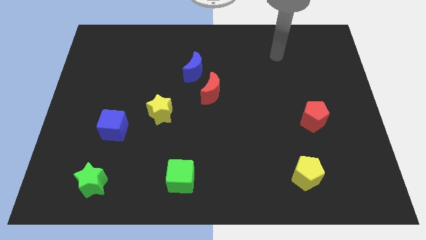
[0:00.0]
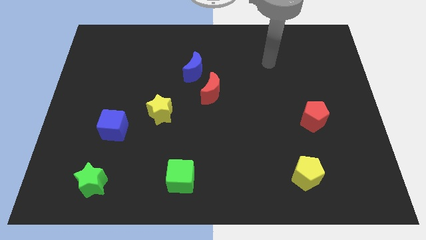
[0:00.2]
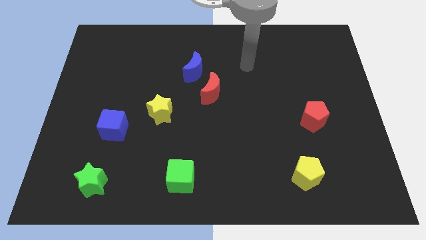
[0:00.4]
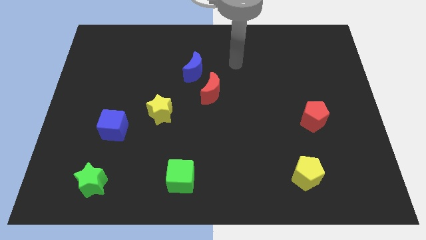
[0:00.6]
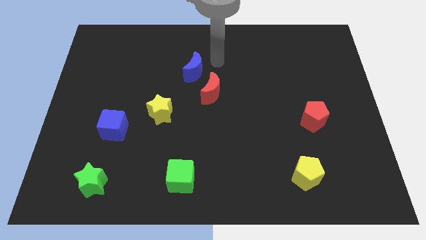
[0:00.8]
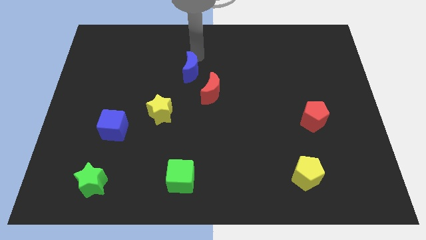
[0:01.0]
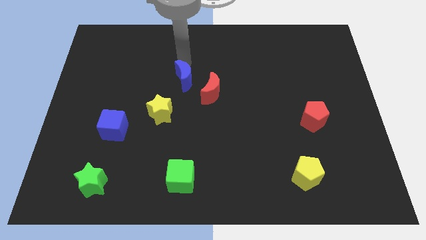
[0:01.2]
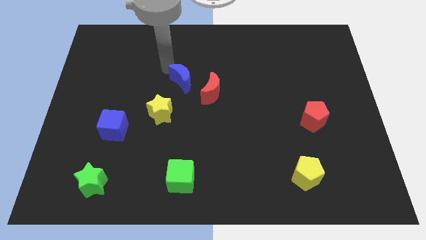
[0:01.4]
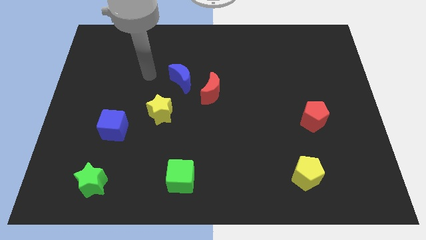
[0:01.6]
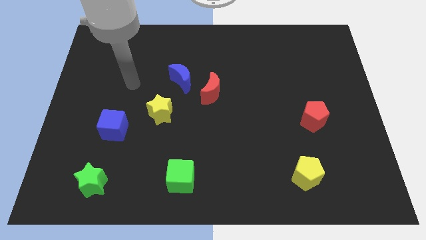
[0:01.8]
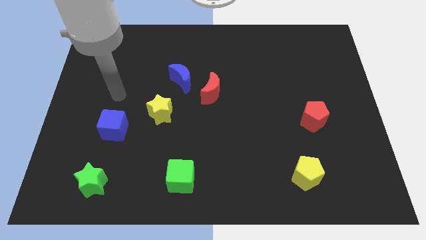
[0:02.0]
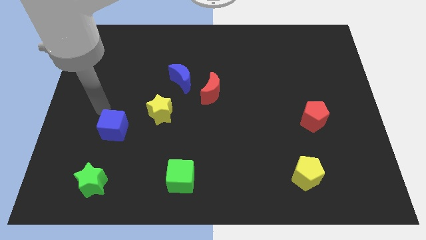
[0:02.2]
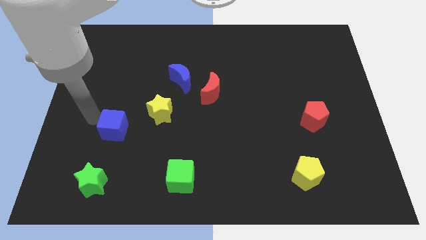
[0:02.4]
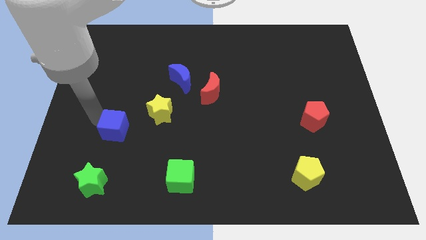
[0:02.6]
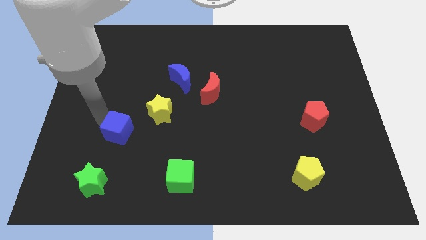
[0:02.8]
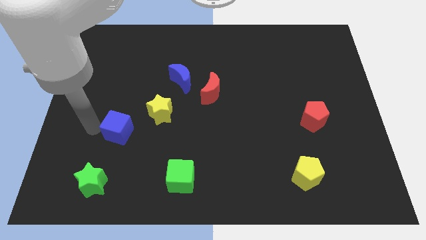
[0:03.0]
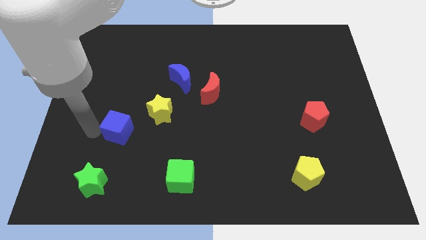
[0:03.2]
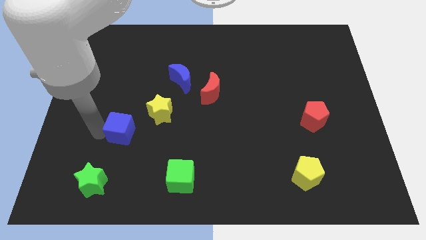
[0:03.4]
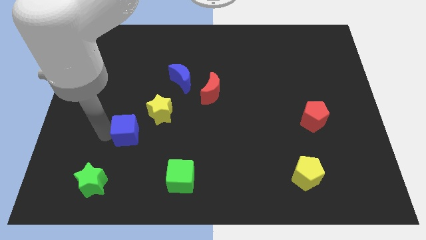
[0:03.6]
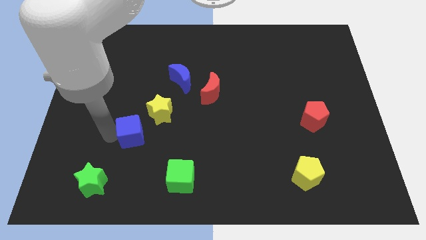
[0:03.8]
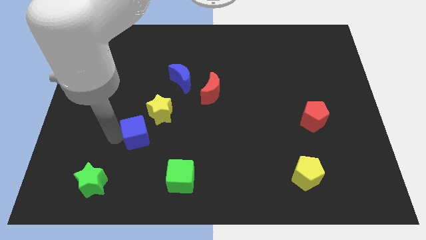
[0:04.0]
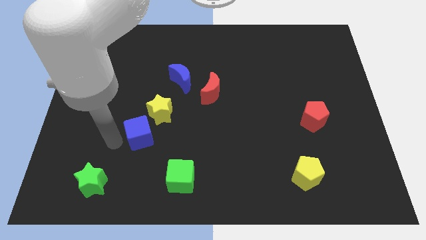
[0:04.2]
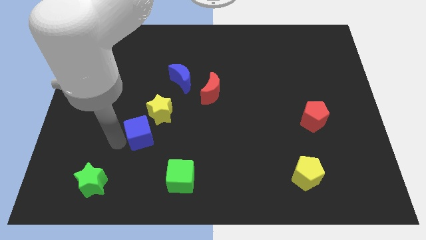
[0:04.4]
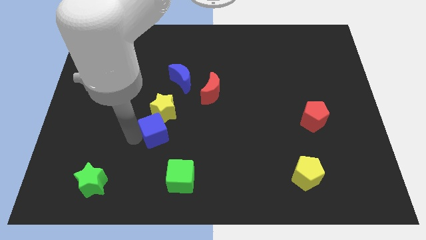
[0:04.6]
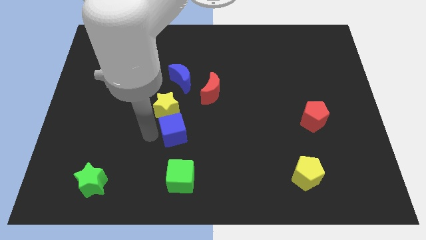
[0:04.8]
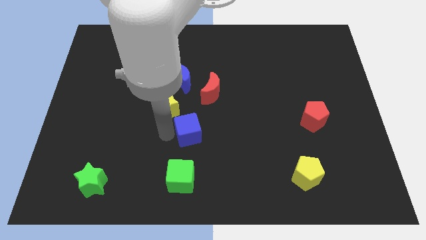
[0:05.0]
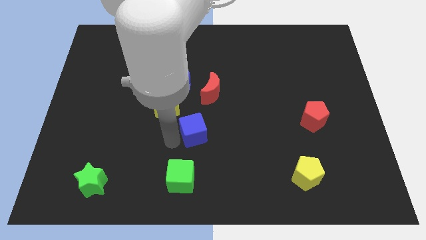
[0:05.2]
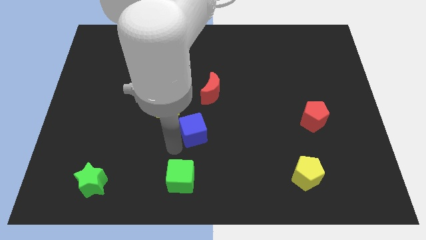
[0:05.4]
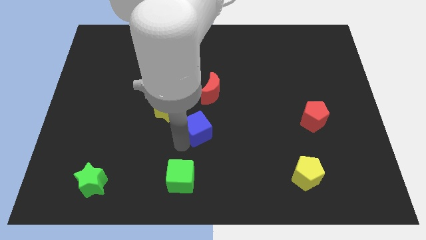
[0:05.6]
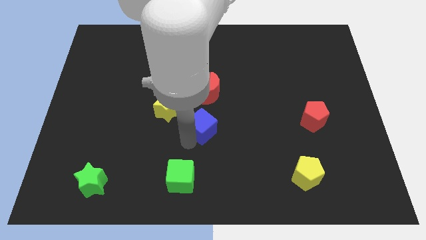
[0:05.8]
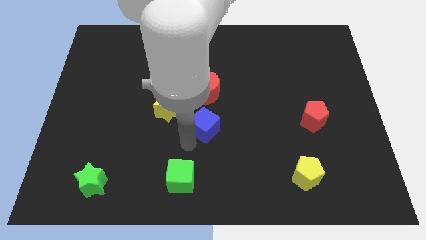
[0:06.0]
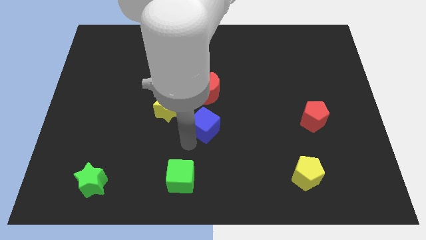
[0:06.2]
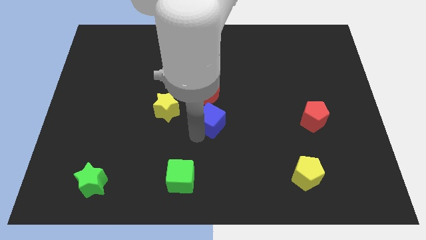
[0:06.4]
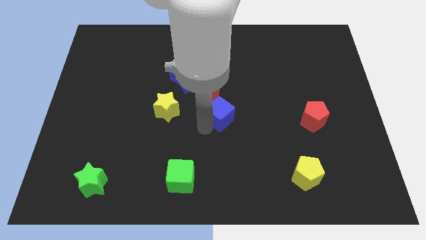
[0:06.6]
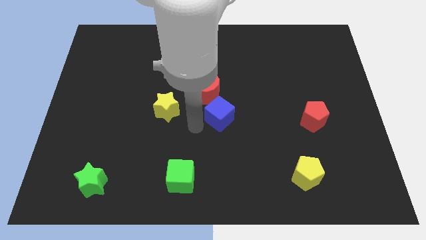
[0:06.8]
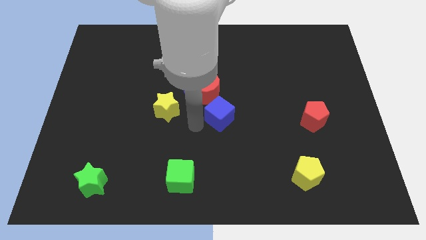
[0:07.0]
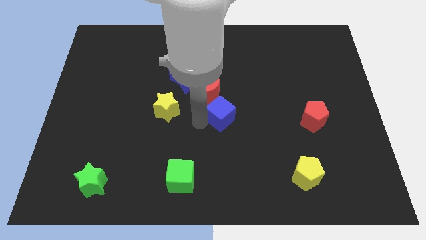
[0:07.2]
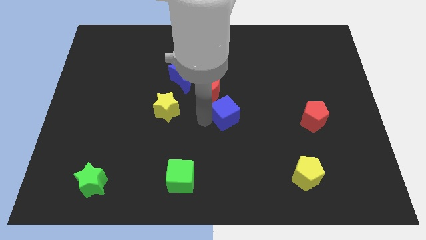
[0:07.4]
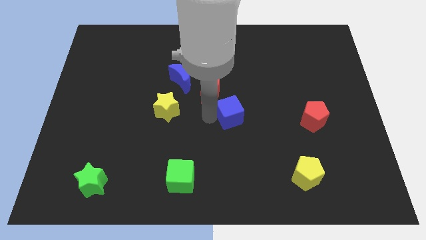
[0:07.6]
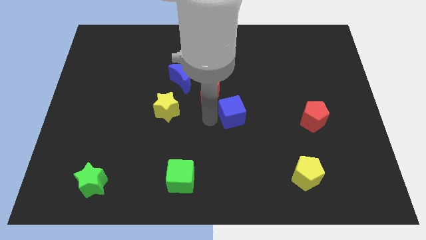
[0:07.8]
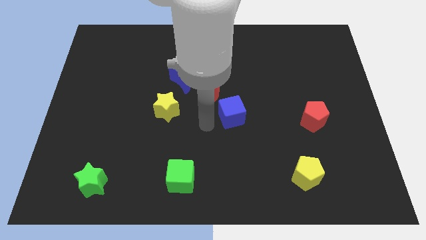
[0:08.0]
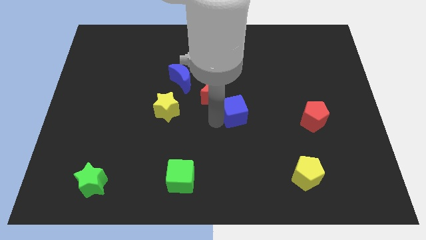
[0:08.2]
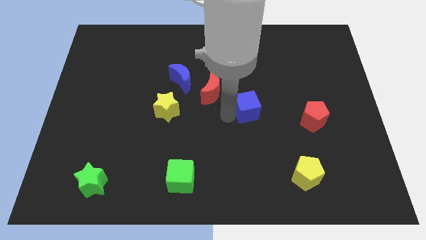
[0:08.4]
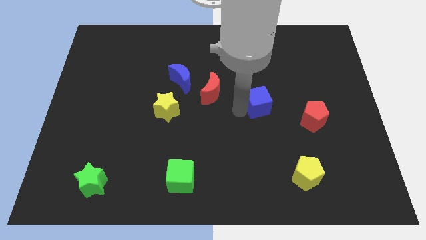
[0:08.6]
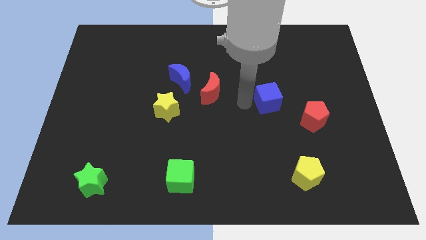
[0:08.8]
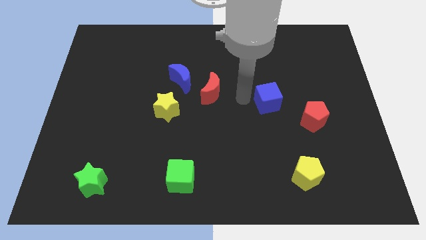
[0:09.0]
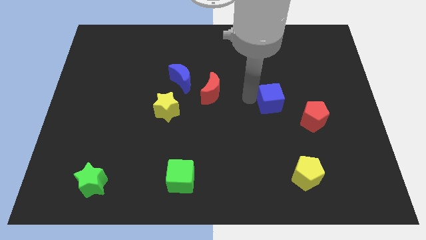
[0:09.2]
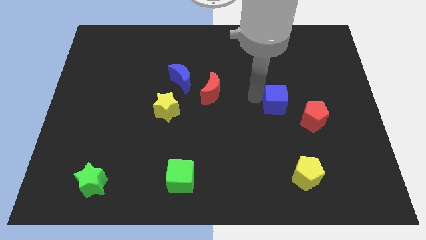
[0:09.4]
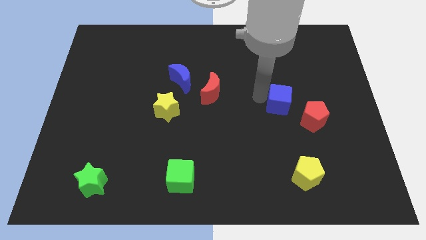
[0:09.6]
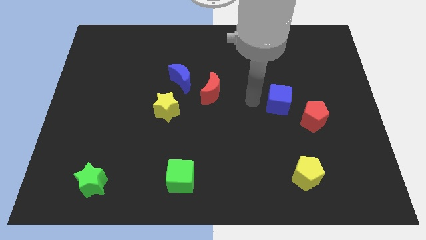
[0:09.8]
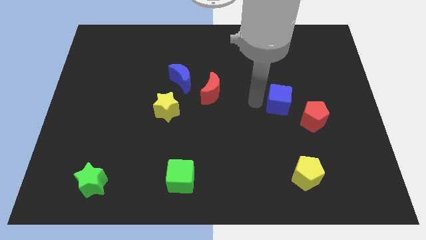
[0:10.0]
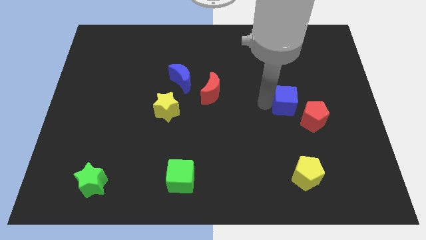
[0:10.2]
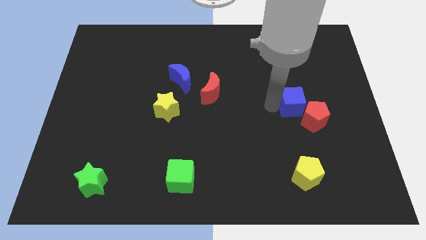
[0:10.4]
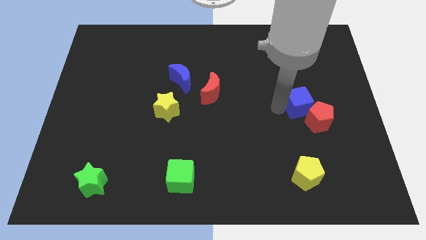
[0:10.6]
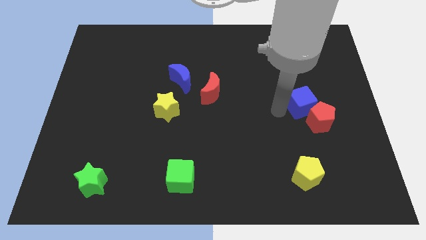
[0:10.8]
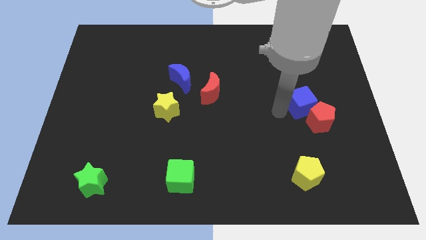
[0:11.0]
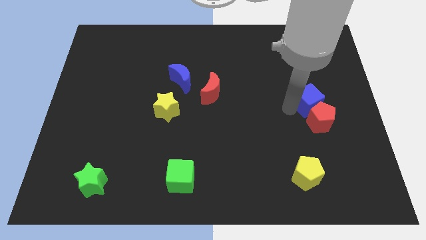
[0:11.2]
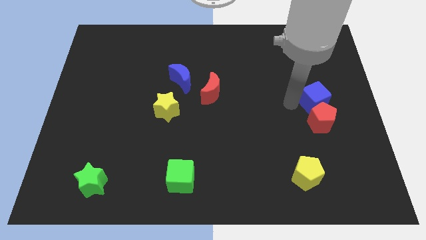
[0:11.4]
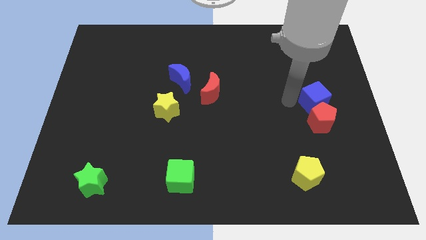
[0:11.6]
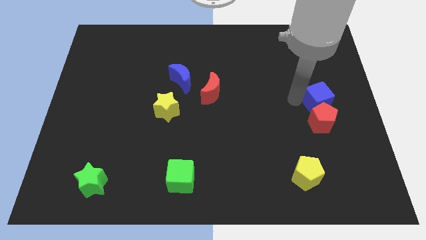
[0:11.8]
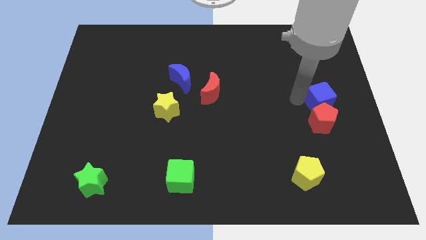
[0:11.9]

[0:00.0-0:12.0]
put the blue cube to the right side of the board
